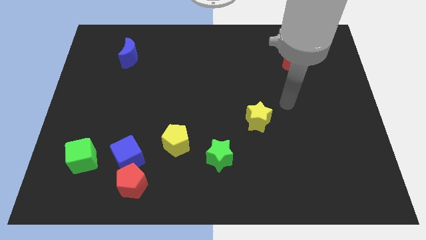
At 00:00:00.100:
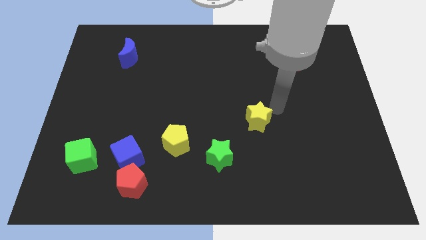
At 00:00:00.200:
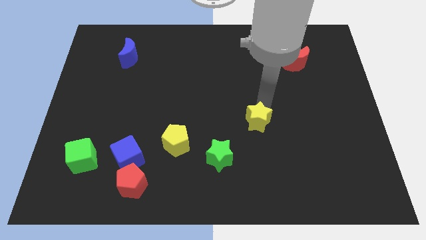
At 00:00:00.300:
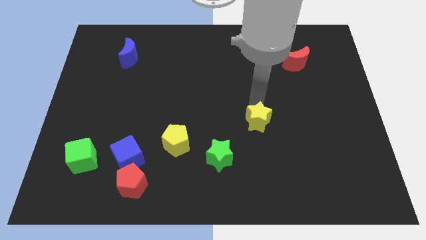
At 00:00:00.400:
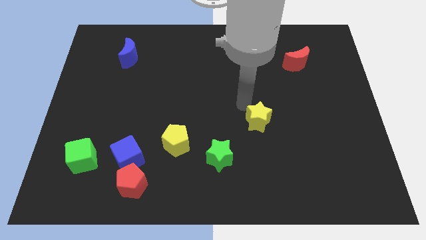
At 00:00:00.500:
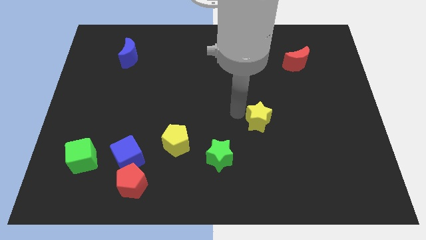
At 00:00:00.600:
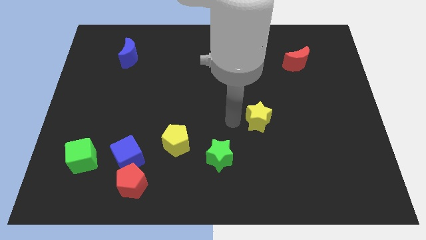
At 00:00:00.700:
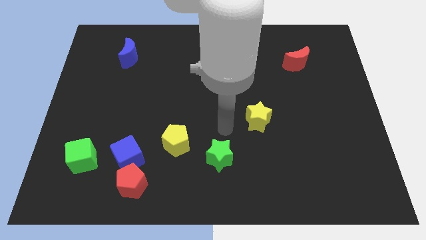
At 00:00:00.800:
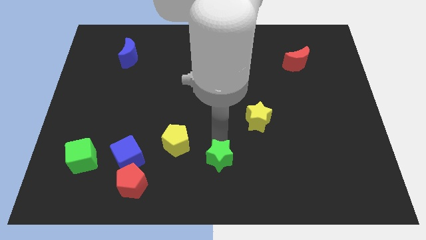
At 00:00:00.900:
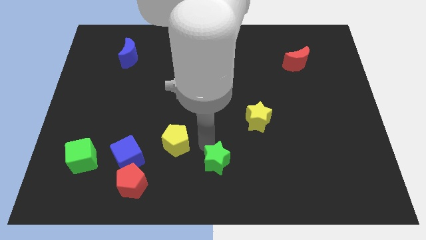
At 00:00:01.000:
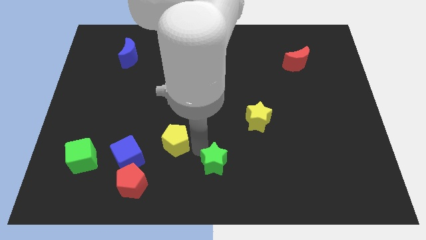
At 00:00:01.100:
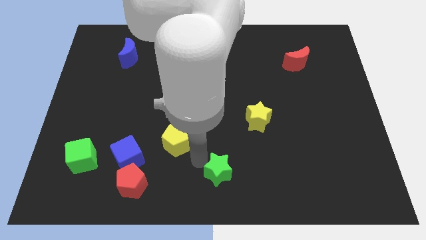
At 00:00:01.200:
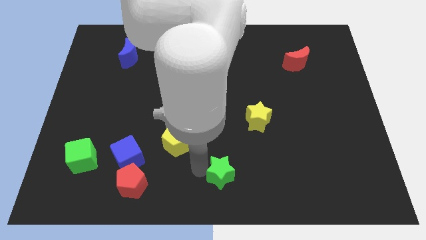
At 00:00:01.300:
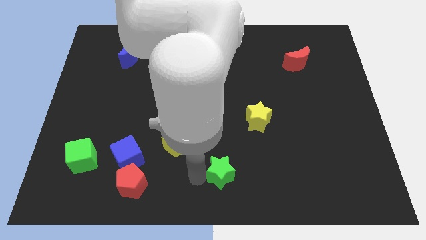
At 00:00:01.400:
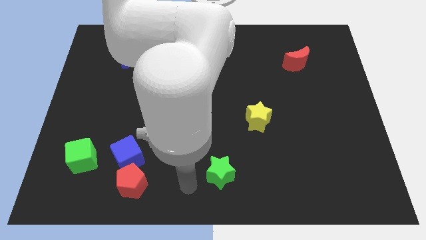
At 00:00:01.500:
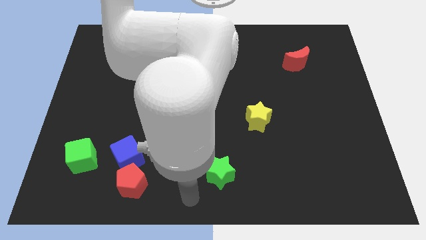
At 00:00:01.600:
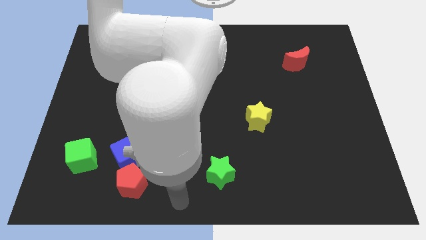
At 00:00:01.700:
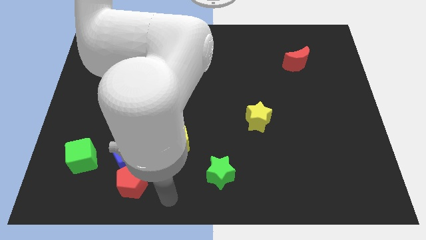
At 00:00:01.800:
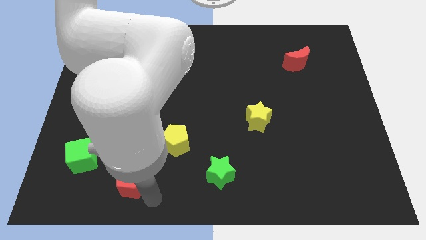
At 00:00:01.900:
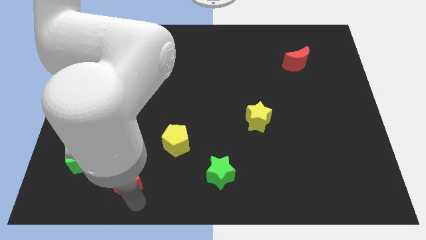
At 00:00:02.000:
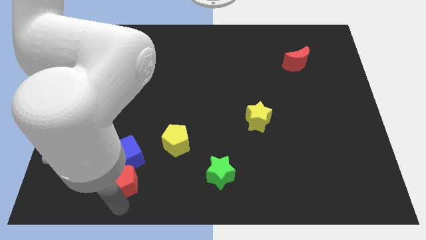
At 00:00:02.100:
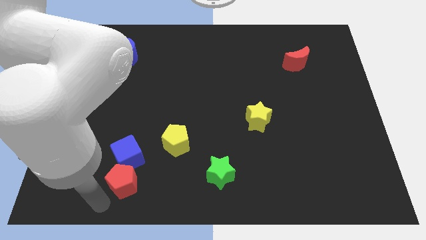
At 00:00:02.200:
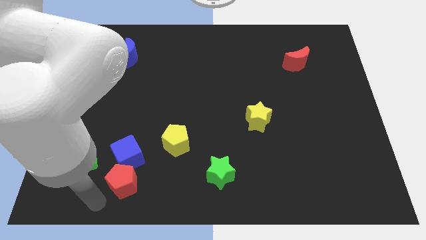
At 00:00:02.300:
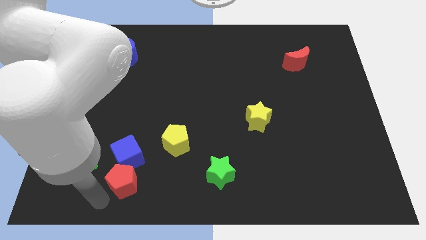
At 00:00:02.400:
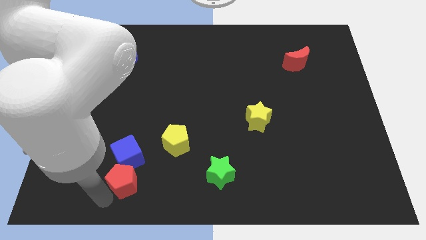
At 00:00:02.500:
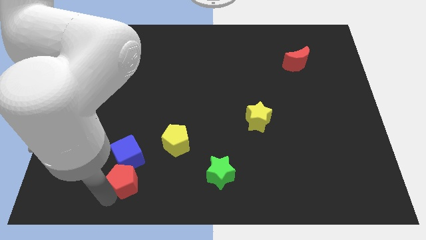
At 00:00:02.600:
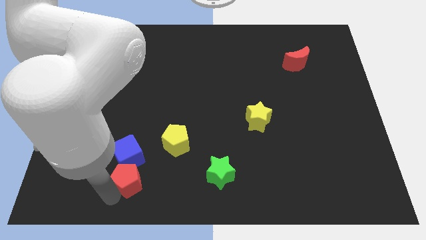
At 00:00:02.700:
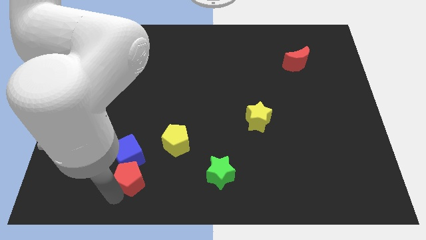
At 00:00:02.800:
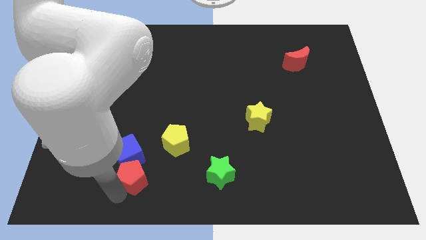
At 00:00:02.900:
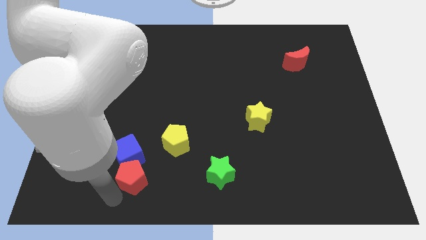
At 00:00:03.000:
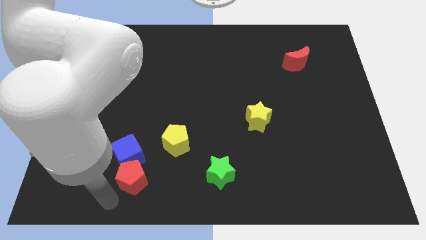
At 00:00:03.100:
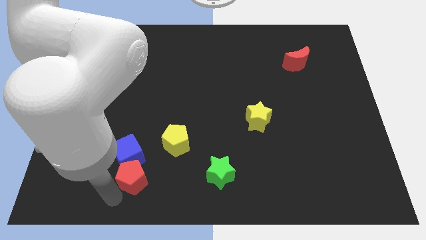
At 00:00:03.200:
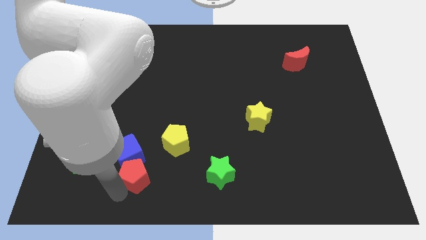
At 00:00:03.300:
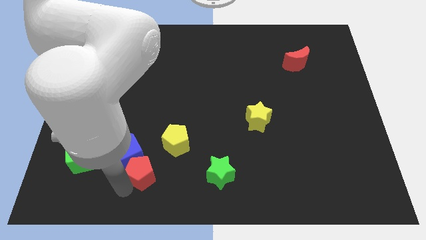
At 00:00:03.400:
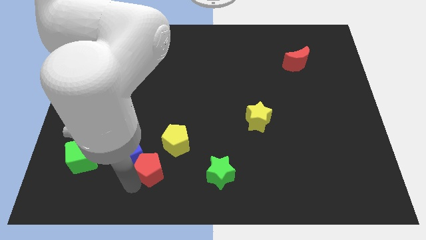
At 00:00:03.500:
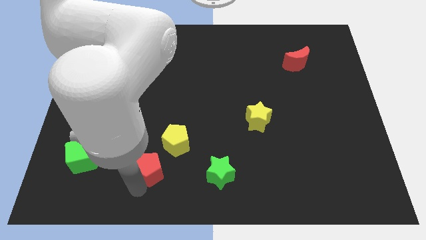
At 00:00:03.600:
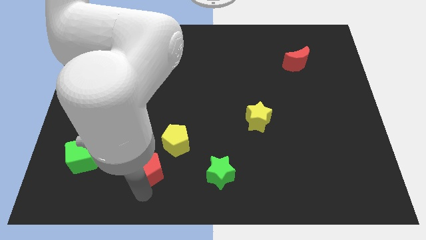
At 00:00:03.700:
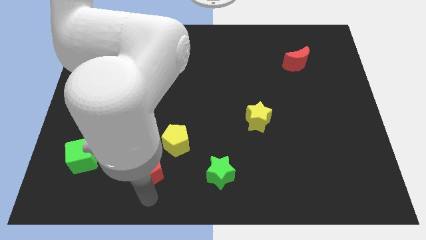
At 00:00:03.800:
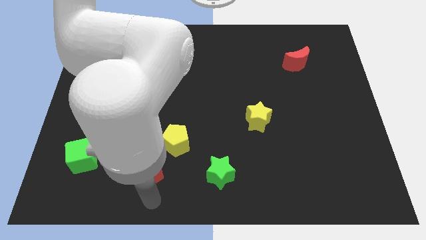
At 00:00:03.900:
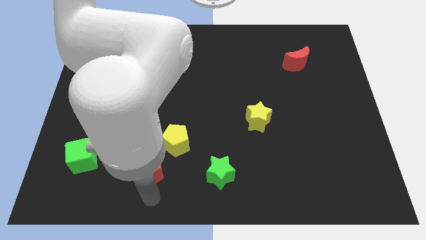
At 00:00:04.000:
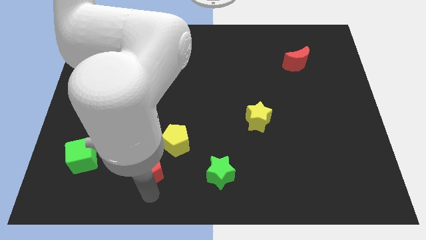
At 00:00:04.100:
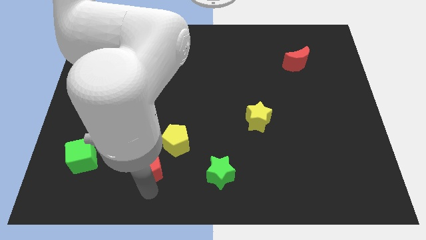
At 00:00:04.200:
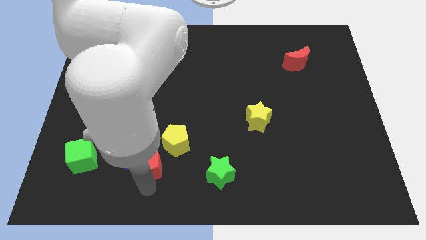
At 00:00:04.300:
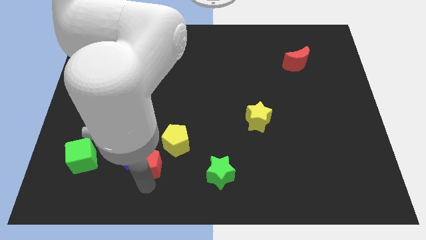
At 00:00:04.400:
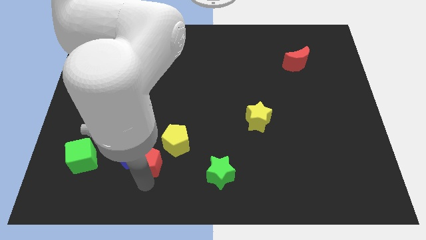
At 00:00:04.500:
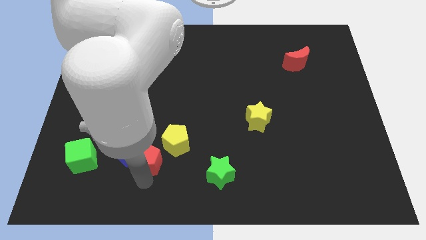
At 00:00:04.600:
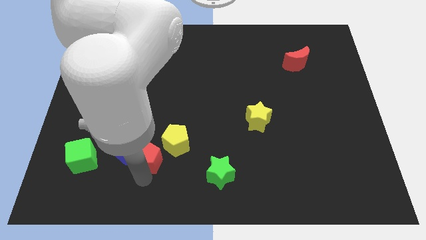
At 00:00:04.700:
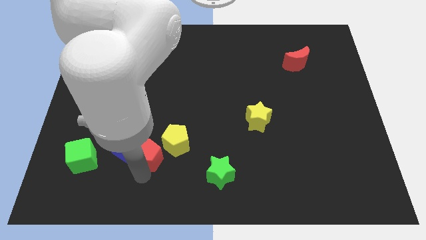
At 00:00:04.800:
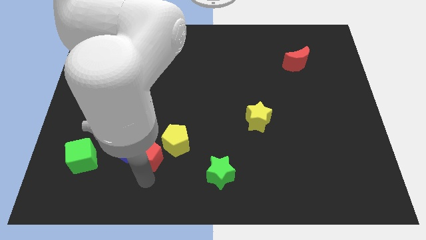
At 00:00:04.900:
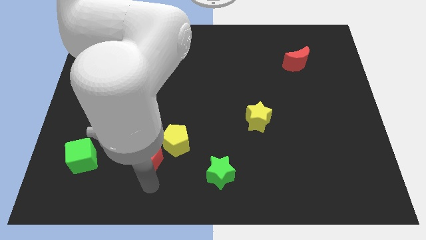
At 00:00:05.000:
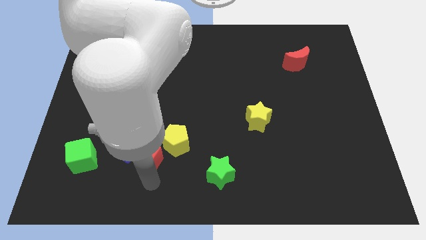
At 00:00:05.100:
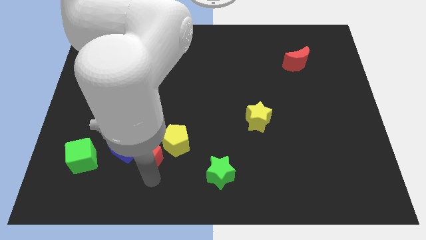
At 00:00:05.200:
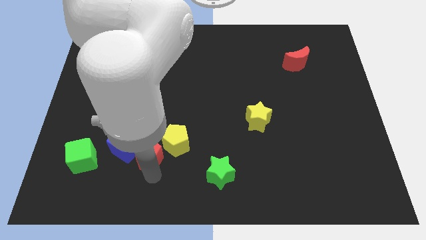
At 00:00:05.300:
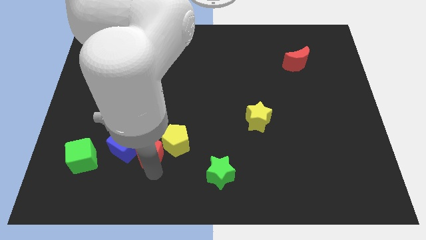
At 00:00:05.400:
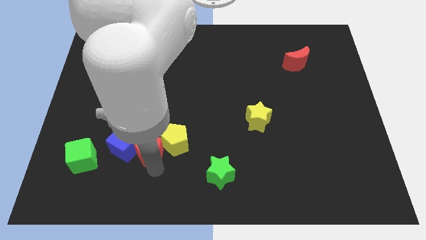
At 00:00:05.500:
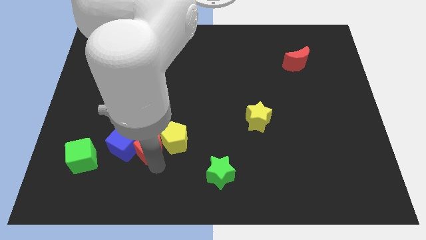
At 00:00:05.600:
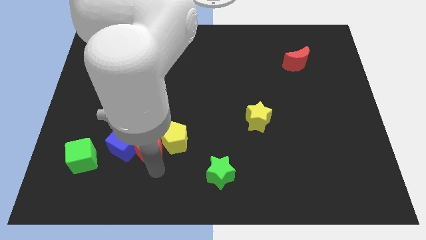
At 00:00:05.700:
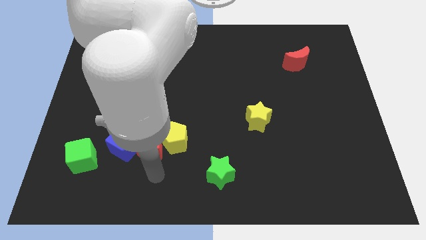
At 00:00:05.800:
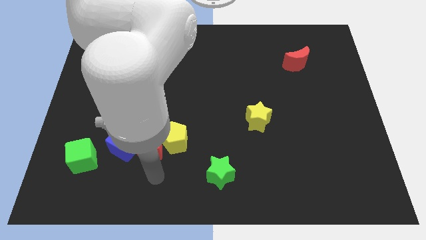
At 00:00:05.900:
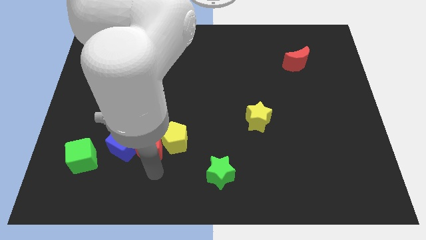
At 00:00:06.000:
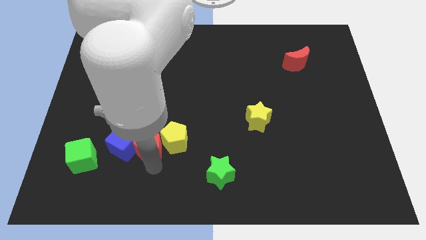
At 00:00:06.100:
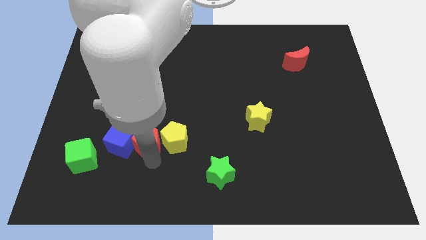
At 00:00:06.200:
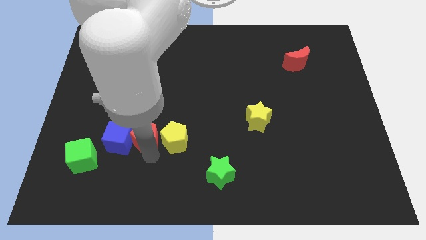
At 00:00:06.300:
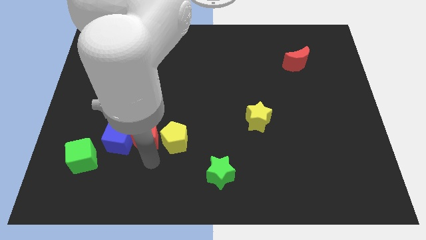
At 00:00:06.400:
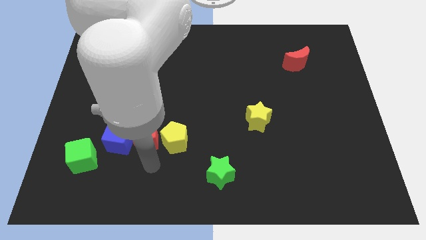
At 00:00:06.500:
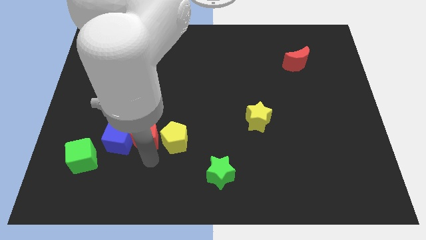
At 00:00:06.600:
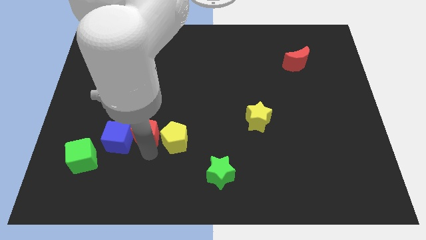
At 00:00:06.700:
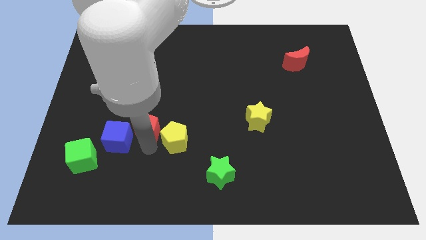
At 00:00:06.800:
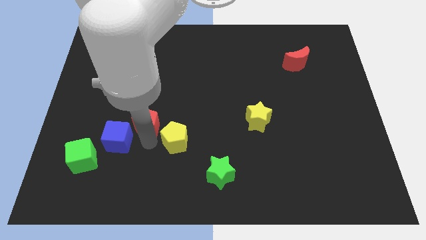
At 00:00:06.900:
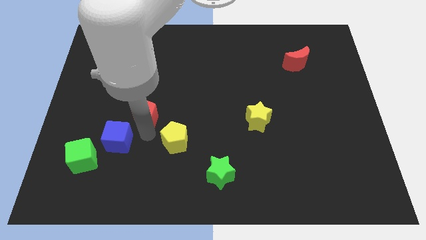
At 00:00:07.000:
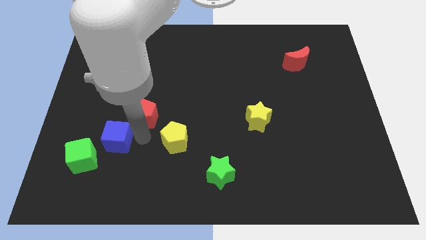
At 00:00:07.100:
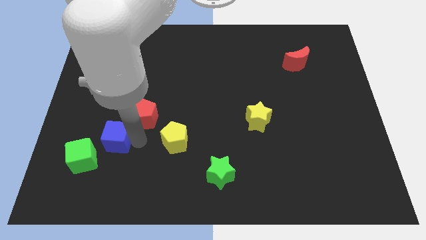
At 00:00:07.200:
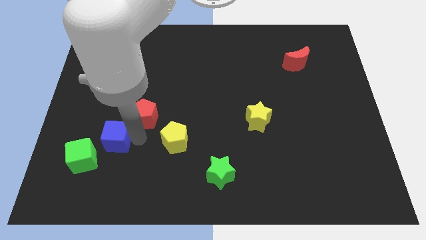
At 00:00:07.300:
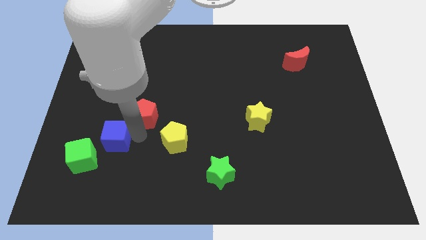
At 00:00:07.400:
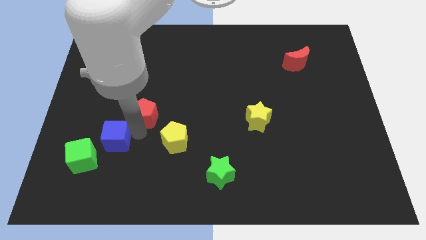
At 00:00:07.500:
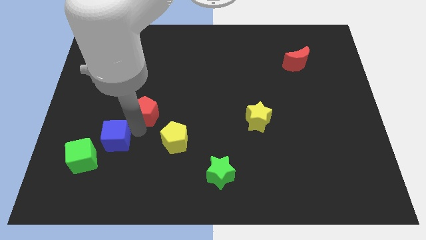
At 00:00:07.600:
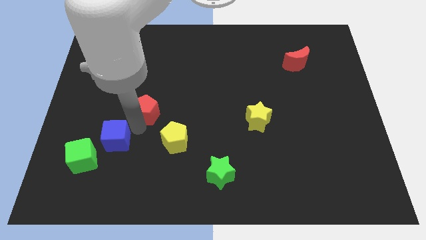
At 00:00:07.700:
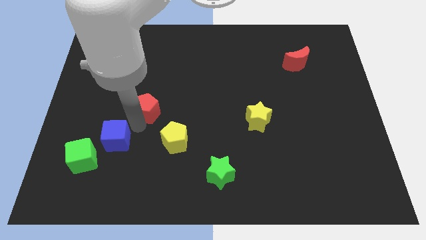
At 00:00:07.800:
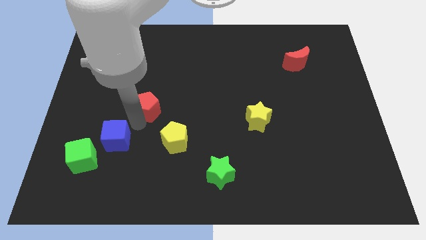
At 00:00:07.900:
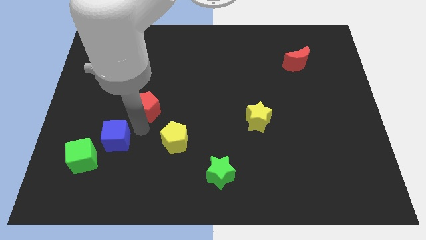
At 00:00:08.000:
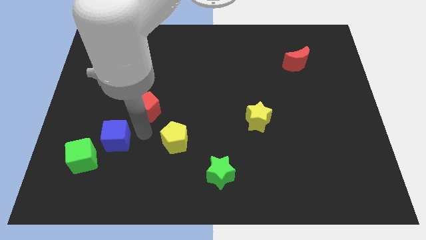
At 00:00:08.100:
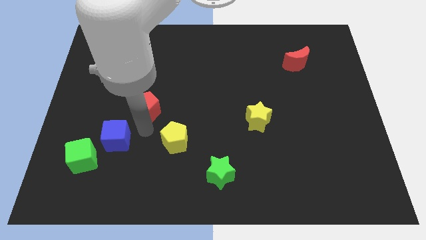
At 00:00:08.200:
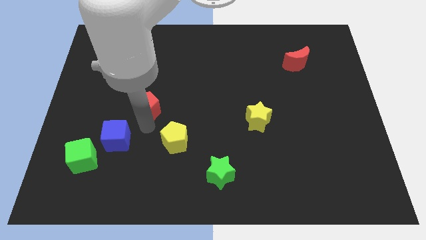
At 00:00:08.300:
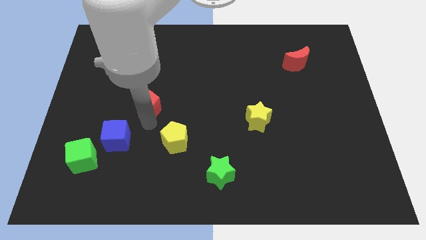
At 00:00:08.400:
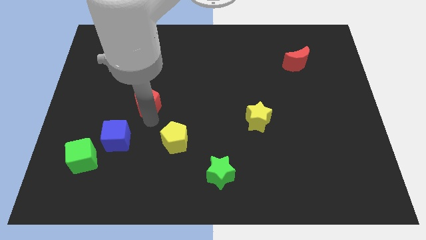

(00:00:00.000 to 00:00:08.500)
slide the red pentagon up
